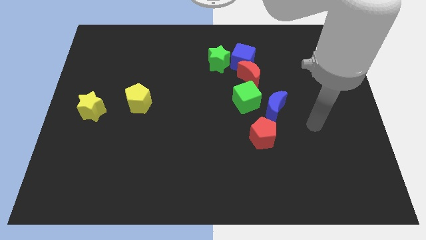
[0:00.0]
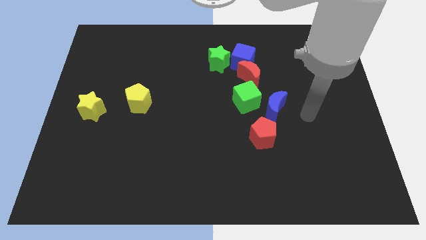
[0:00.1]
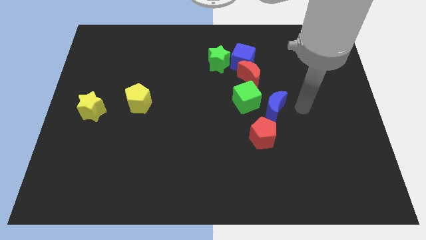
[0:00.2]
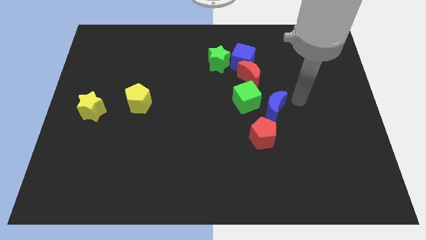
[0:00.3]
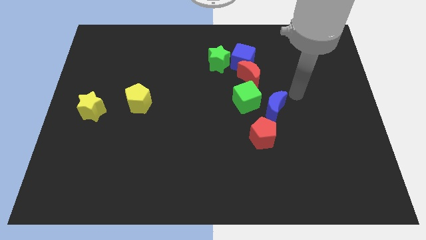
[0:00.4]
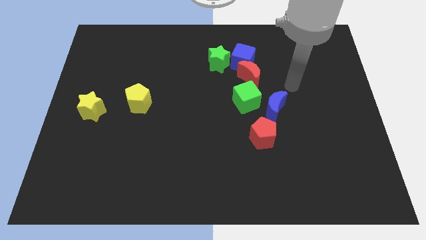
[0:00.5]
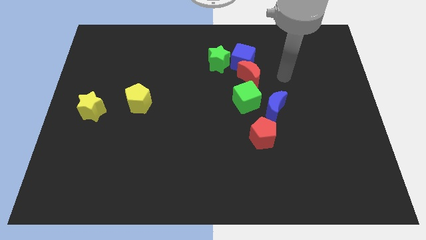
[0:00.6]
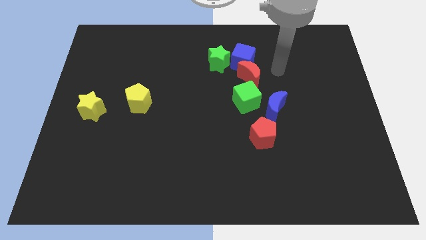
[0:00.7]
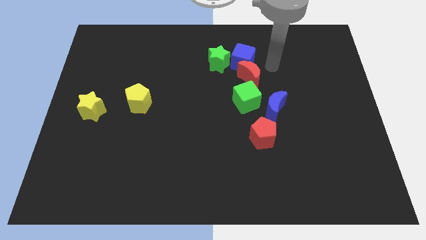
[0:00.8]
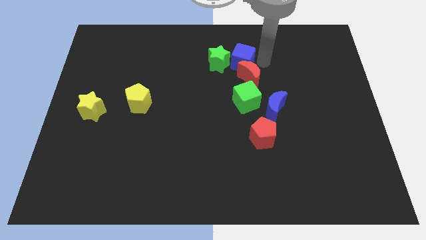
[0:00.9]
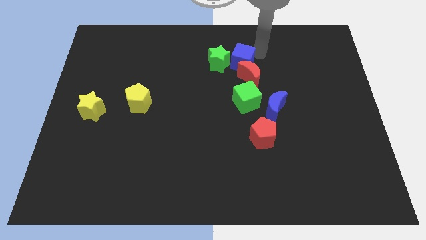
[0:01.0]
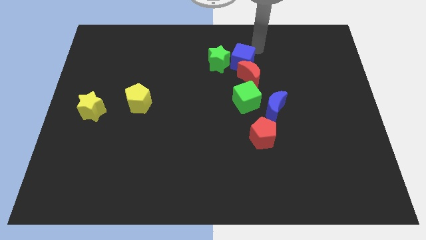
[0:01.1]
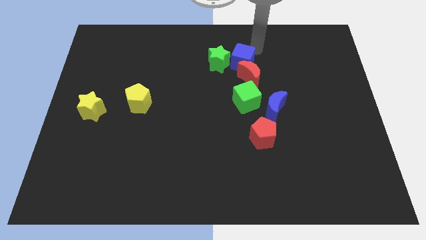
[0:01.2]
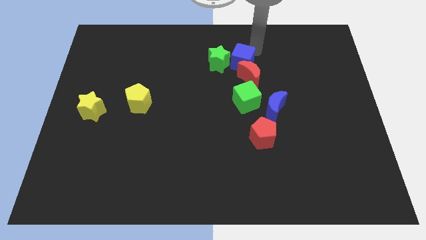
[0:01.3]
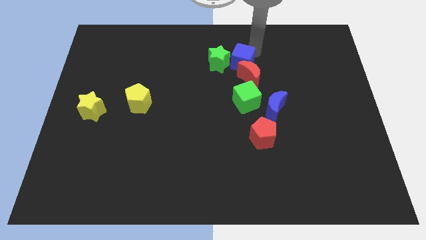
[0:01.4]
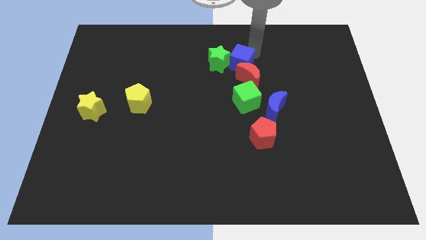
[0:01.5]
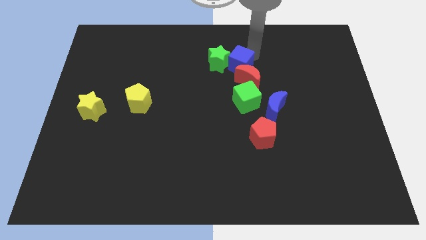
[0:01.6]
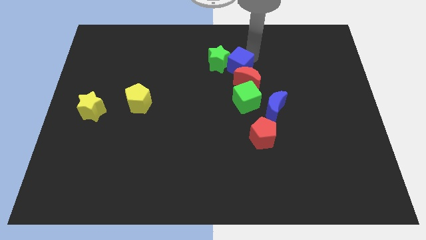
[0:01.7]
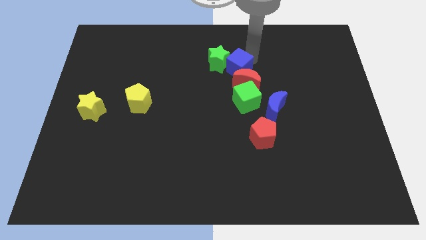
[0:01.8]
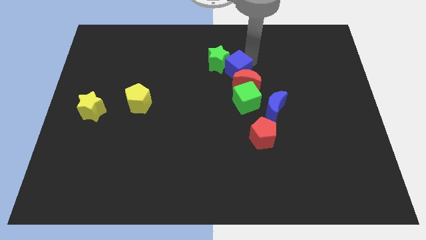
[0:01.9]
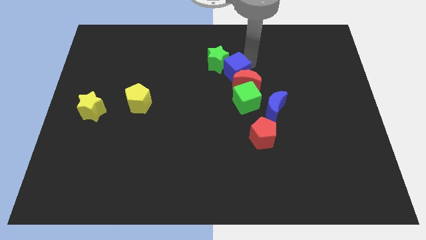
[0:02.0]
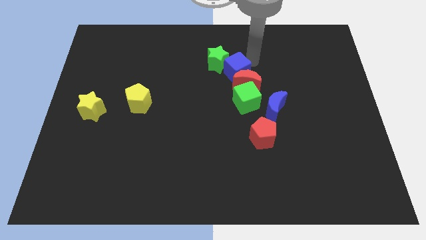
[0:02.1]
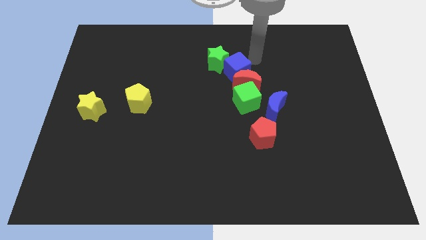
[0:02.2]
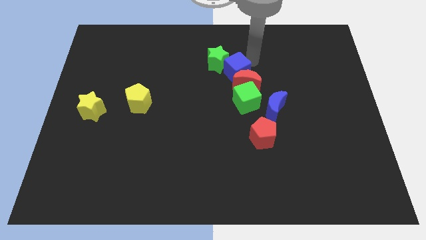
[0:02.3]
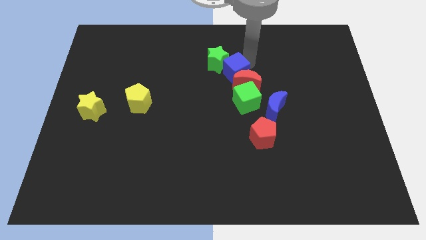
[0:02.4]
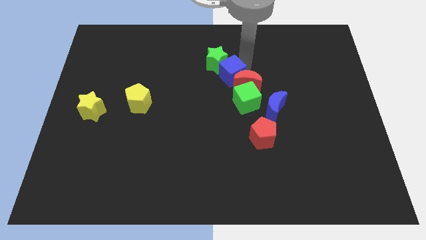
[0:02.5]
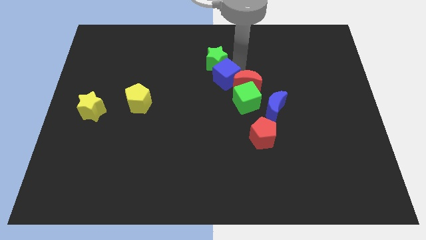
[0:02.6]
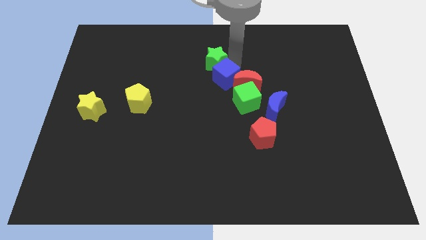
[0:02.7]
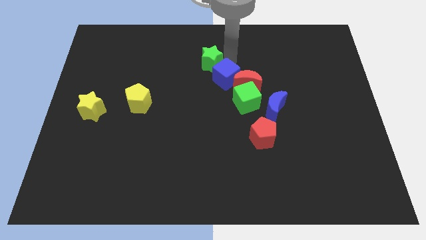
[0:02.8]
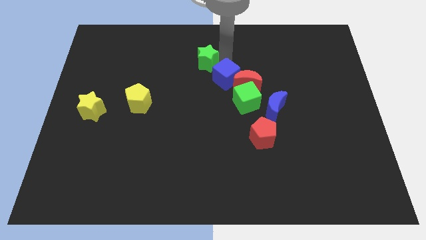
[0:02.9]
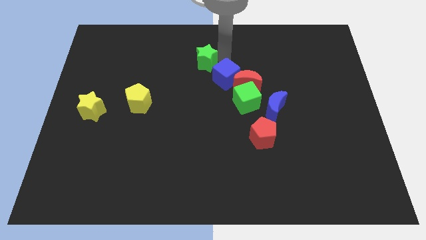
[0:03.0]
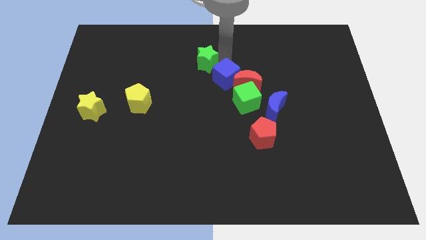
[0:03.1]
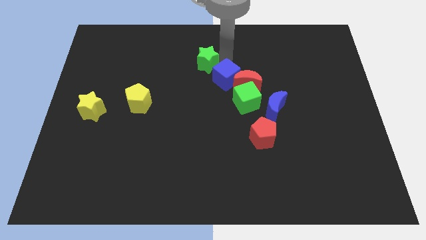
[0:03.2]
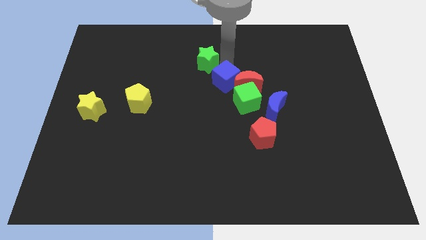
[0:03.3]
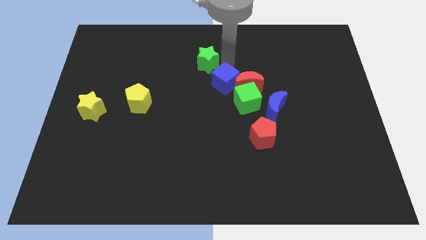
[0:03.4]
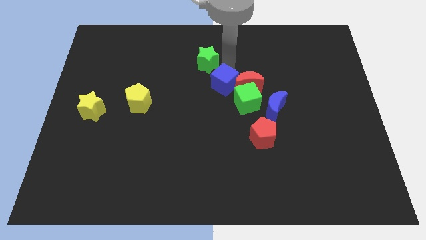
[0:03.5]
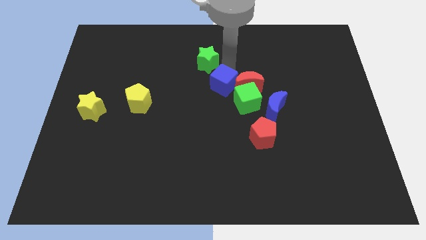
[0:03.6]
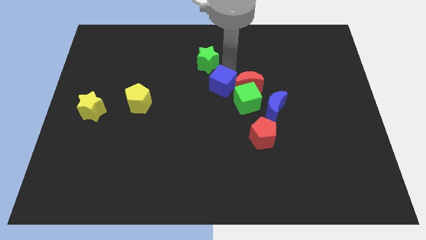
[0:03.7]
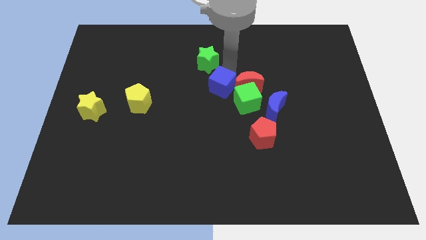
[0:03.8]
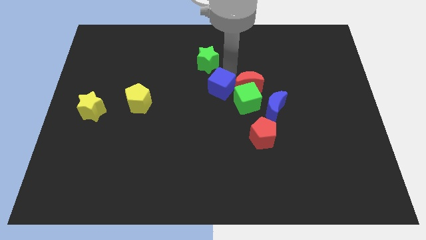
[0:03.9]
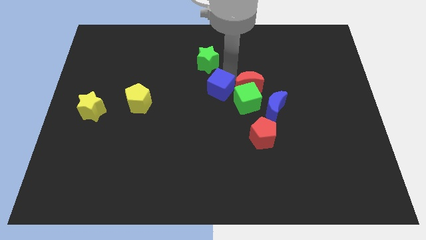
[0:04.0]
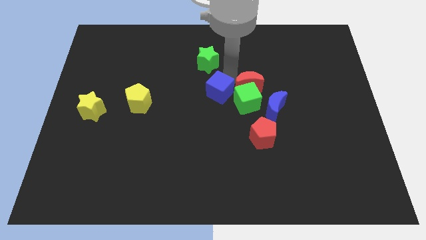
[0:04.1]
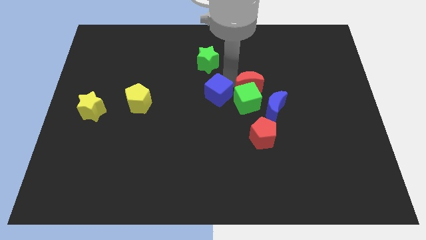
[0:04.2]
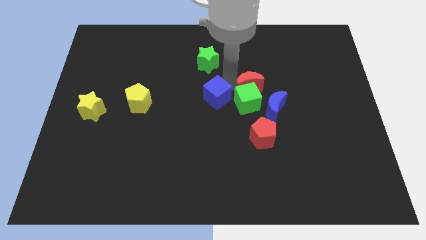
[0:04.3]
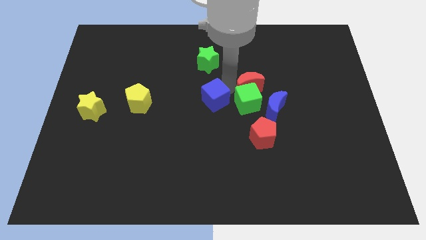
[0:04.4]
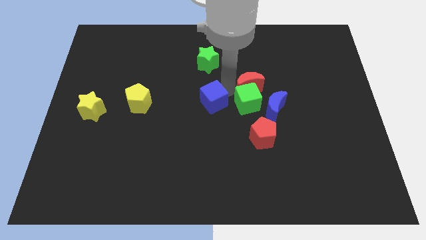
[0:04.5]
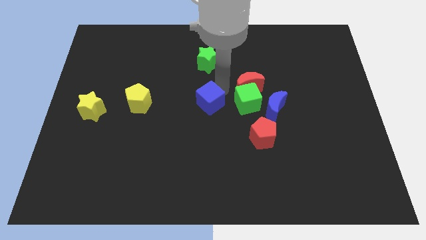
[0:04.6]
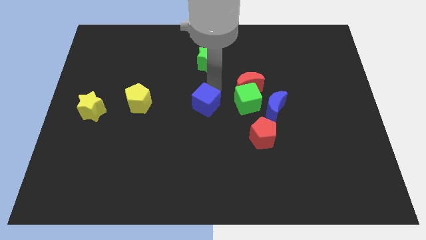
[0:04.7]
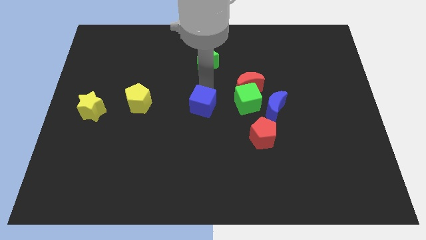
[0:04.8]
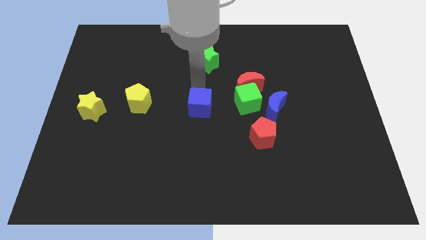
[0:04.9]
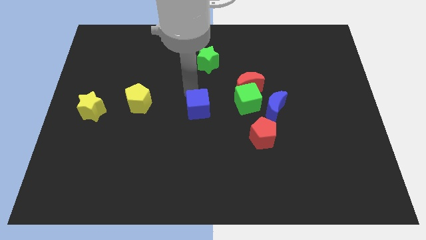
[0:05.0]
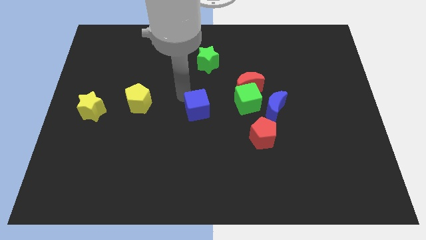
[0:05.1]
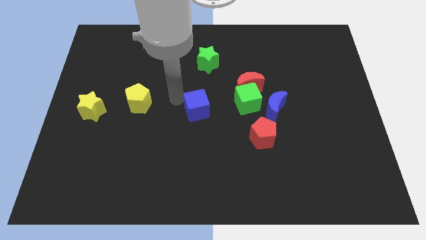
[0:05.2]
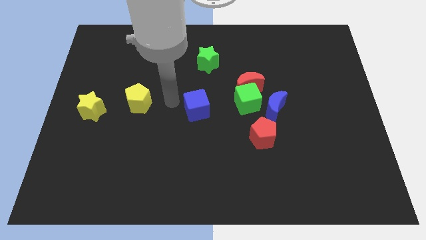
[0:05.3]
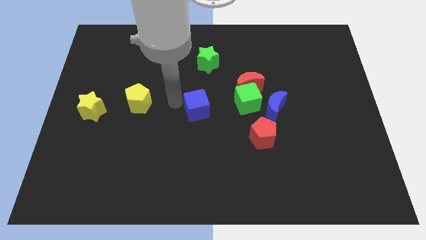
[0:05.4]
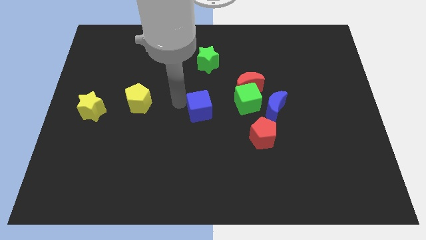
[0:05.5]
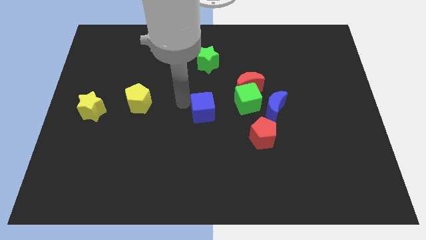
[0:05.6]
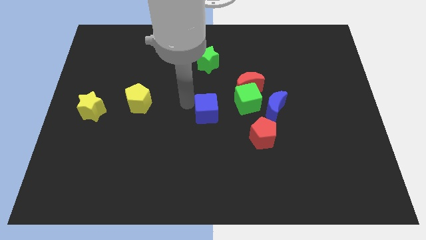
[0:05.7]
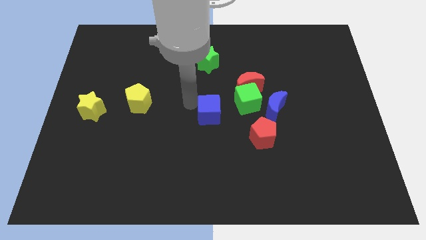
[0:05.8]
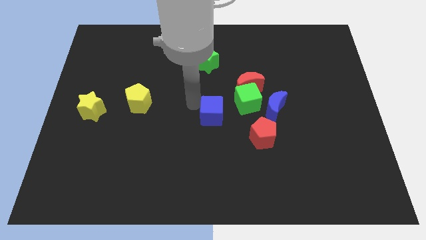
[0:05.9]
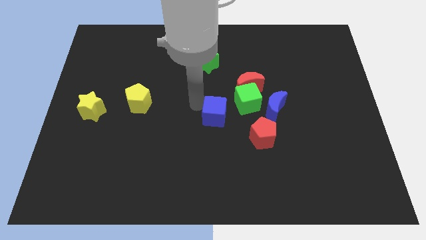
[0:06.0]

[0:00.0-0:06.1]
push the blue cube diagonally up and to the left of the red pentagon

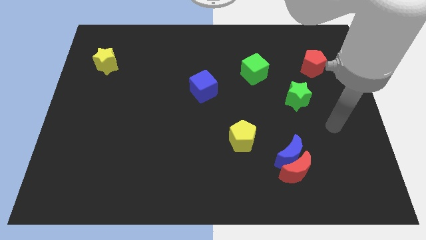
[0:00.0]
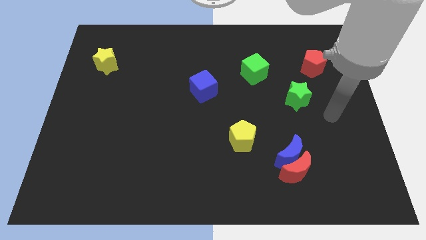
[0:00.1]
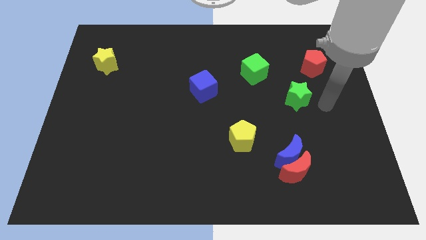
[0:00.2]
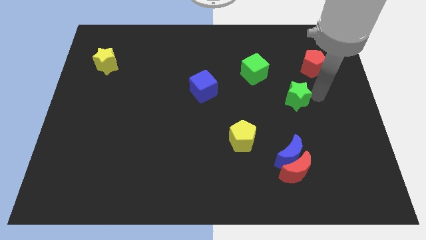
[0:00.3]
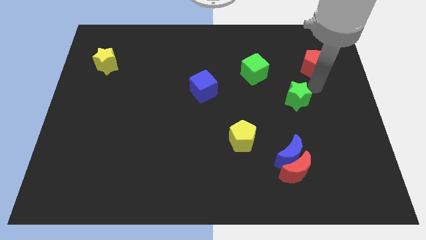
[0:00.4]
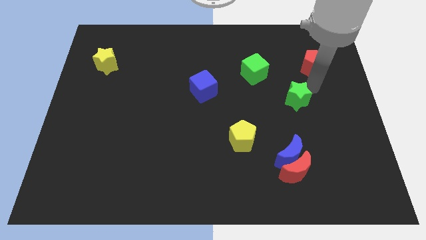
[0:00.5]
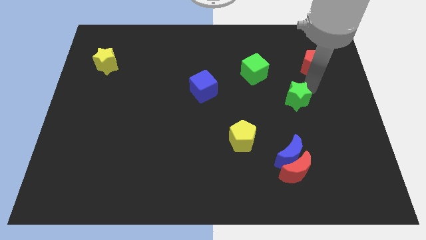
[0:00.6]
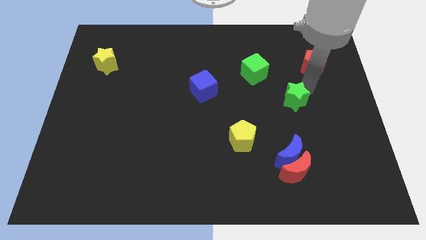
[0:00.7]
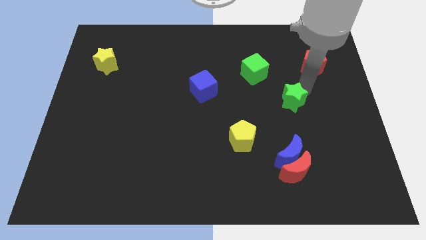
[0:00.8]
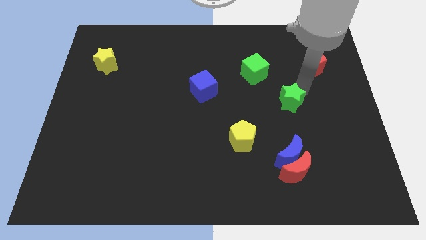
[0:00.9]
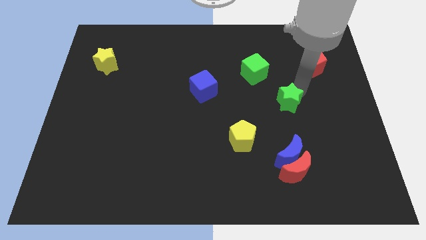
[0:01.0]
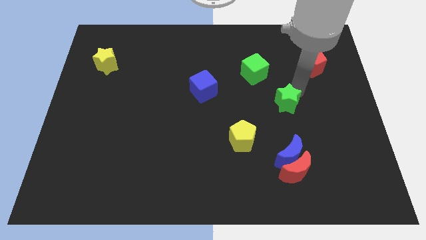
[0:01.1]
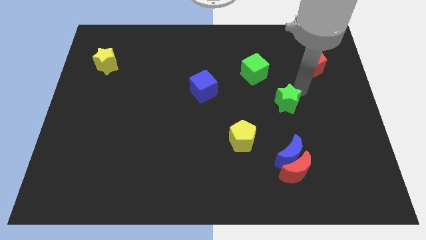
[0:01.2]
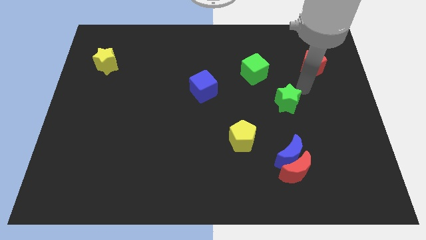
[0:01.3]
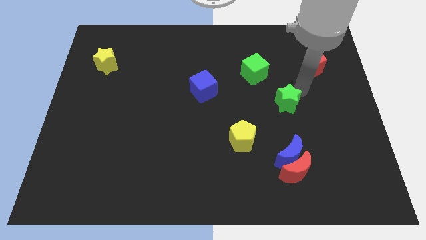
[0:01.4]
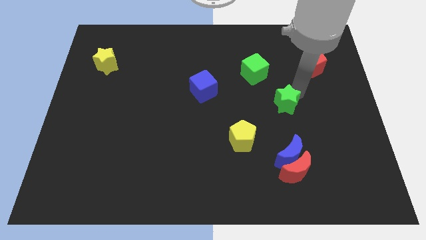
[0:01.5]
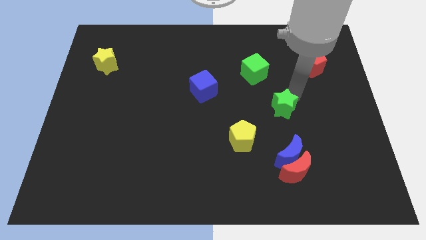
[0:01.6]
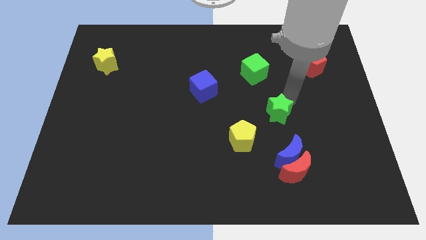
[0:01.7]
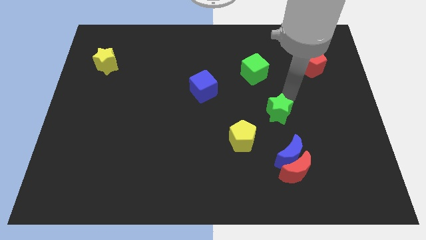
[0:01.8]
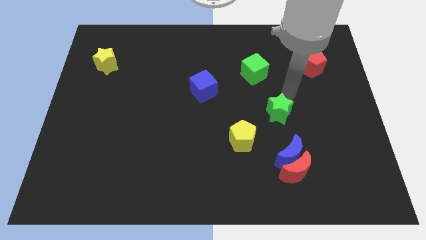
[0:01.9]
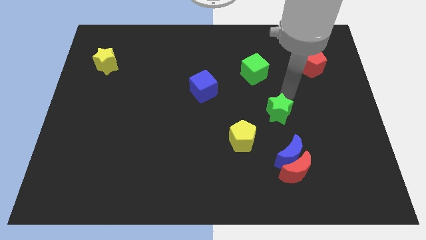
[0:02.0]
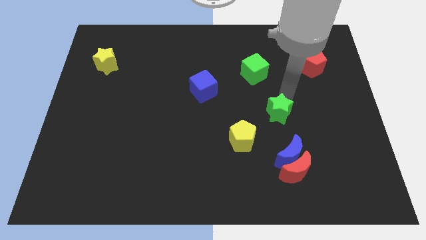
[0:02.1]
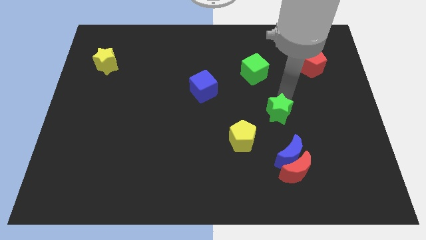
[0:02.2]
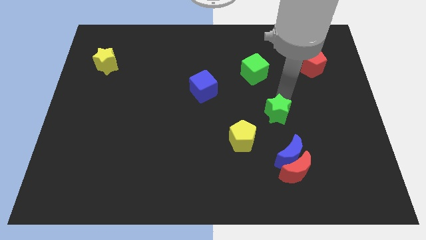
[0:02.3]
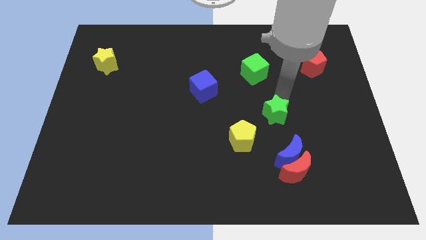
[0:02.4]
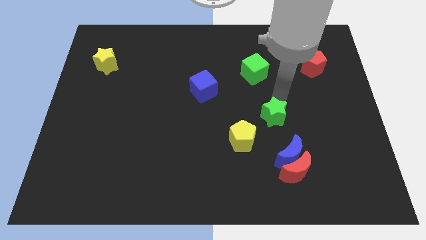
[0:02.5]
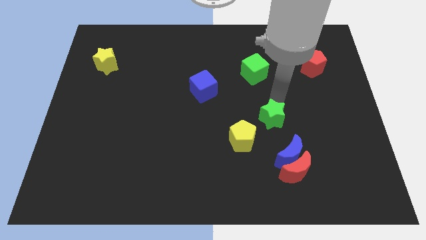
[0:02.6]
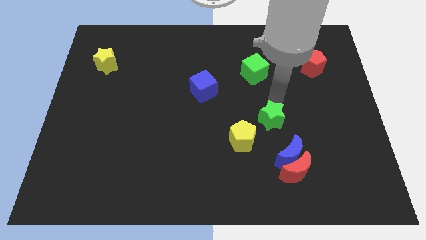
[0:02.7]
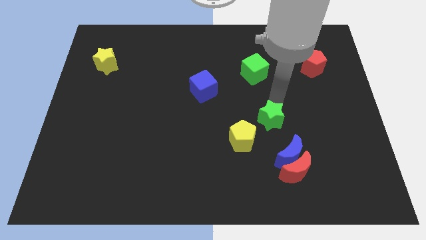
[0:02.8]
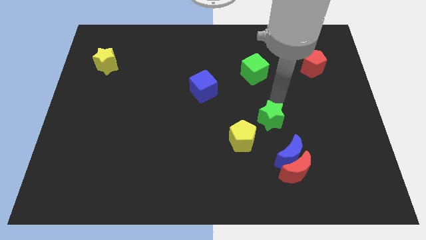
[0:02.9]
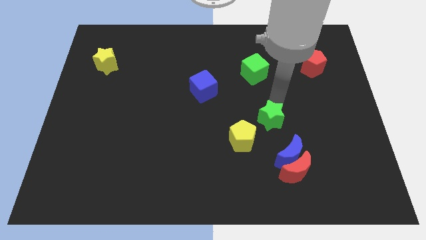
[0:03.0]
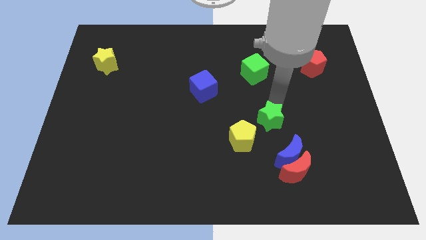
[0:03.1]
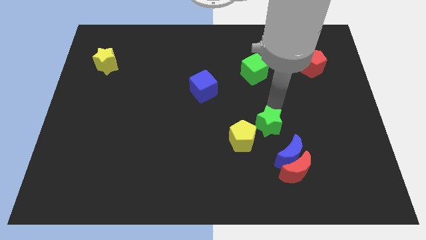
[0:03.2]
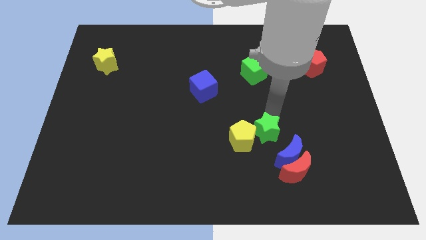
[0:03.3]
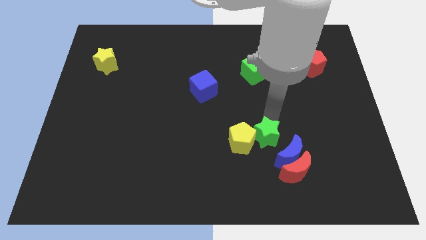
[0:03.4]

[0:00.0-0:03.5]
slide the green star to the left of the blue moon
